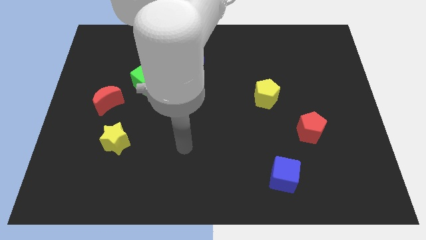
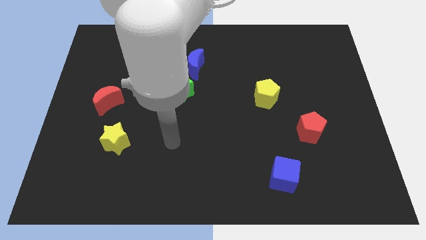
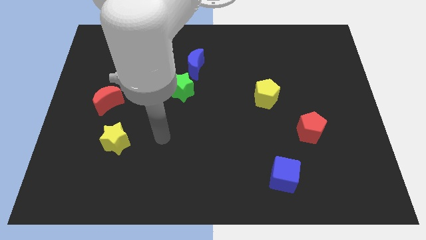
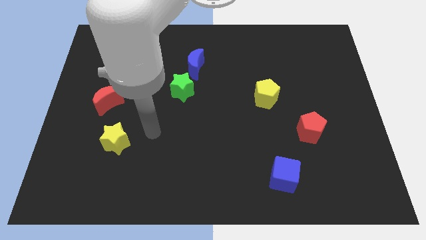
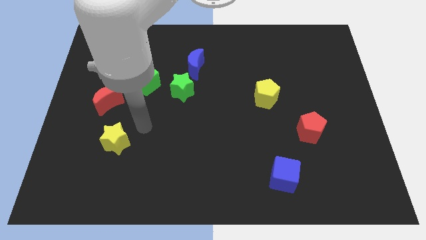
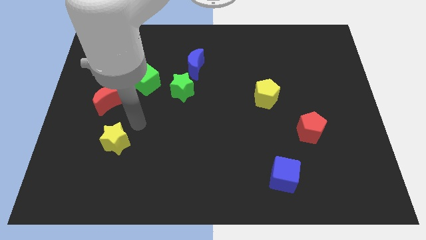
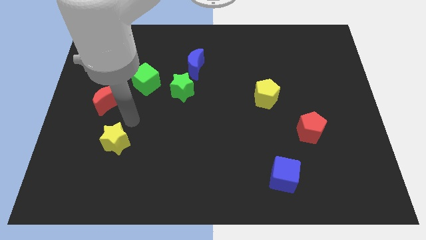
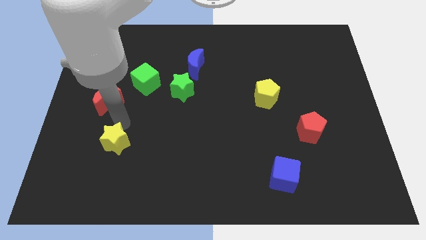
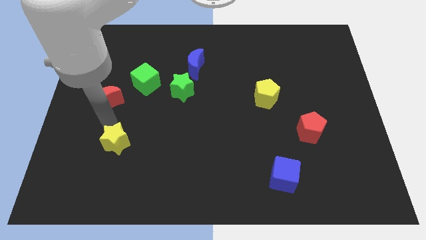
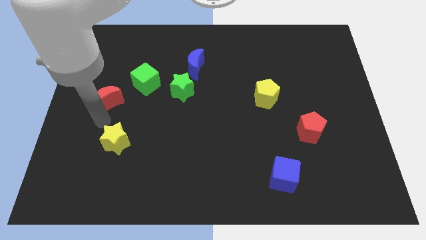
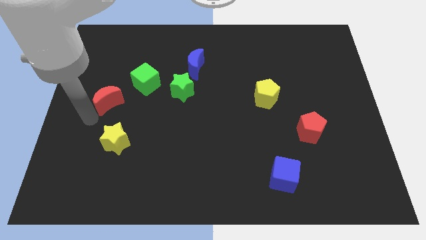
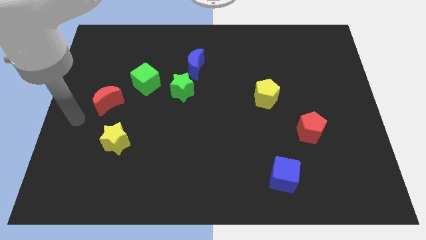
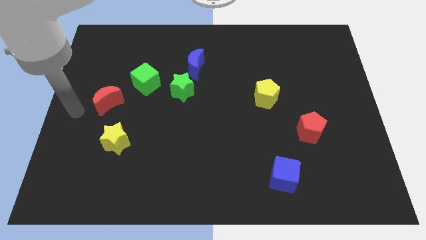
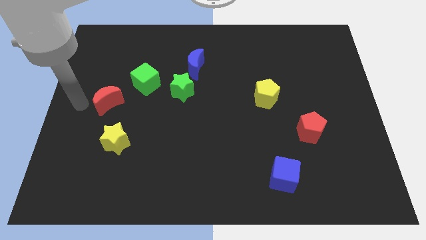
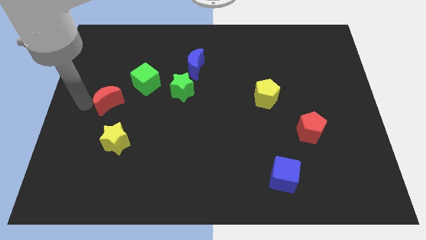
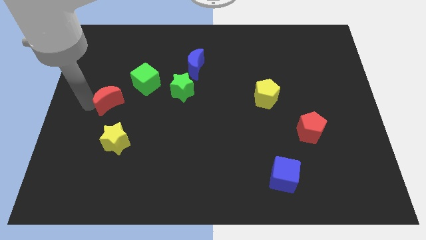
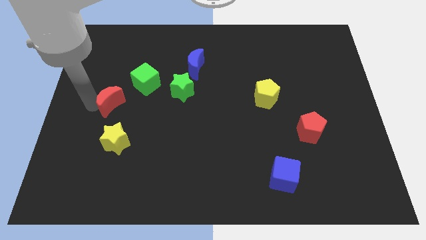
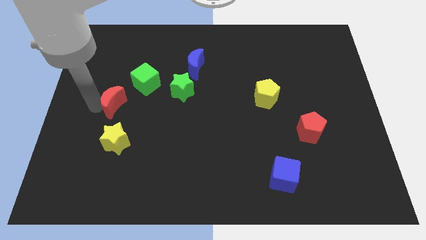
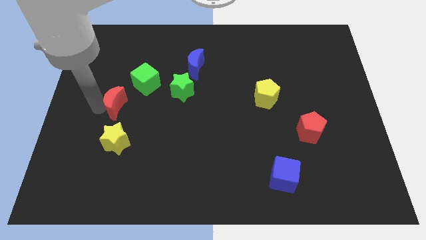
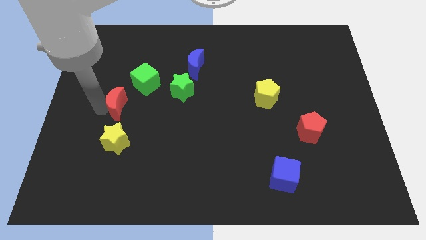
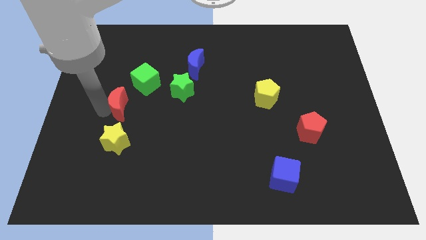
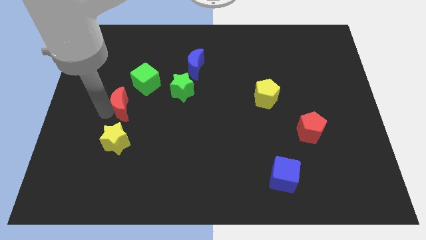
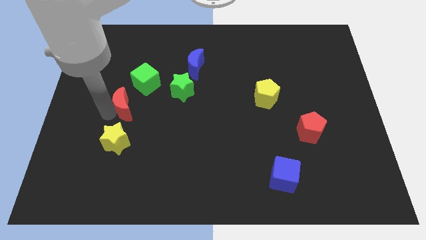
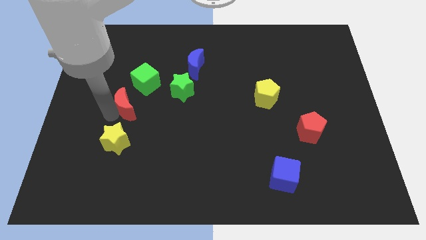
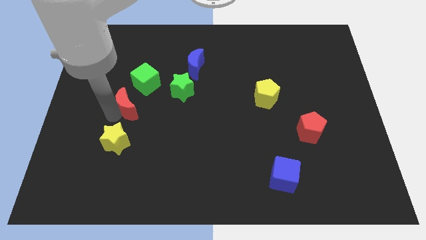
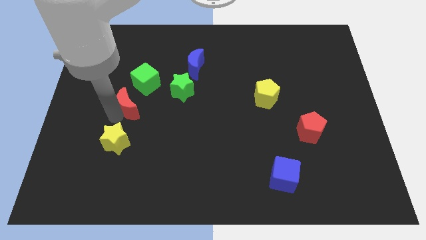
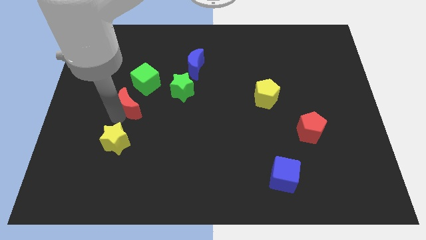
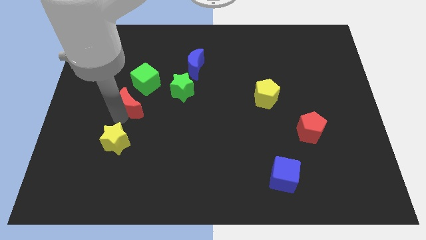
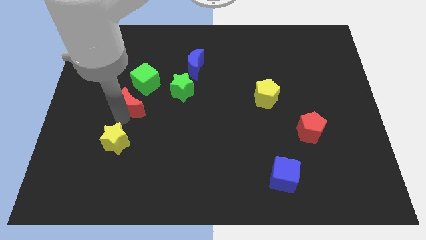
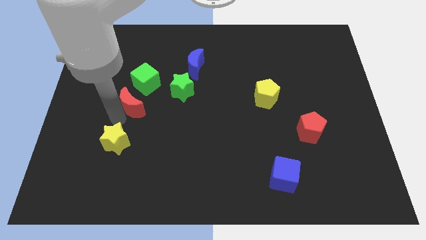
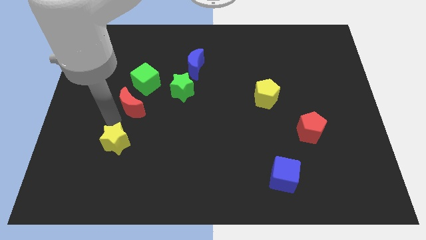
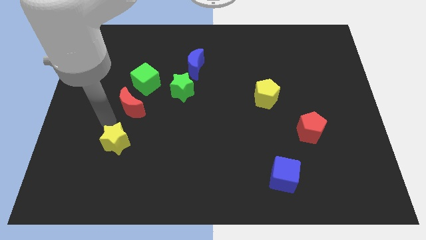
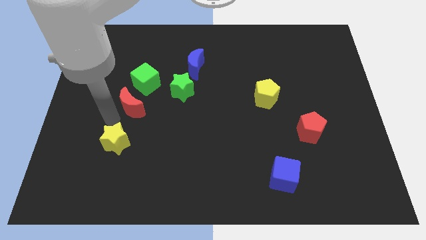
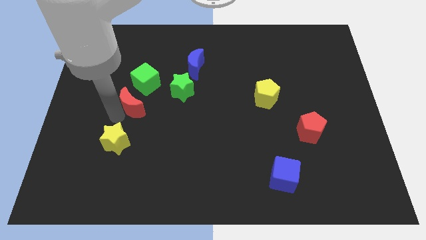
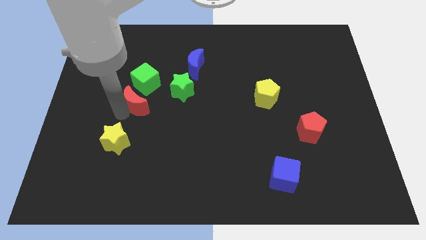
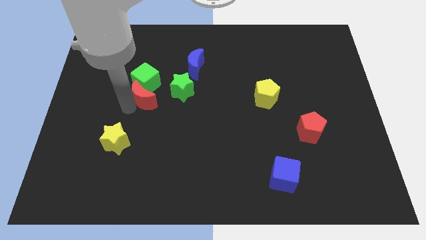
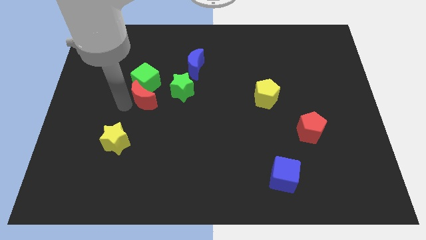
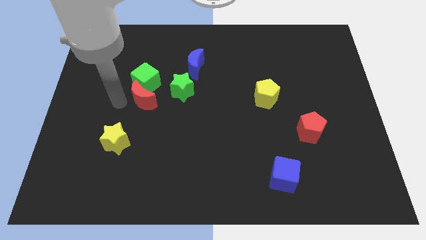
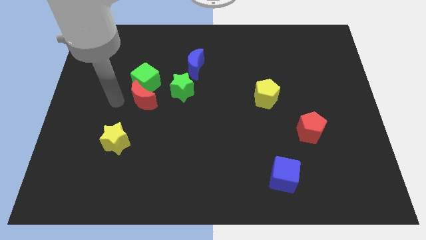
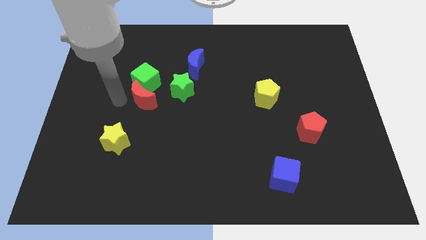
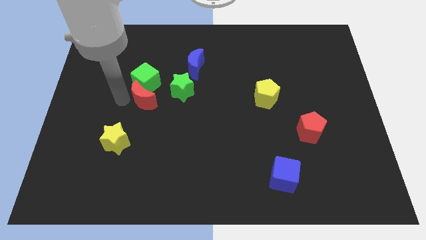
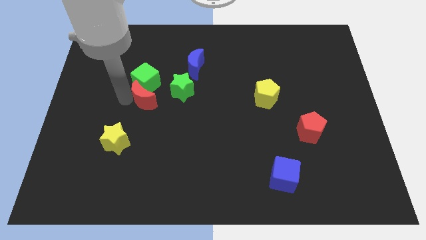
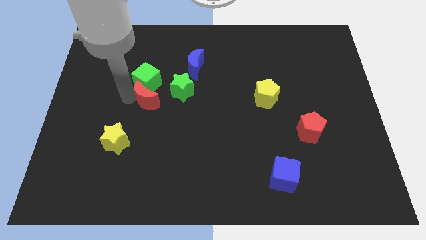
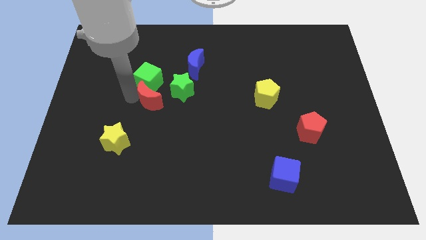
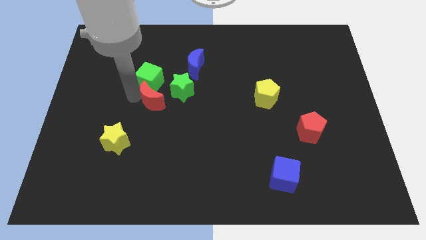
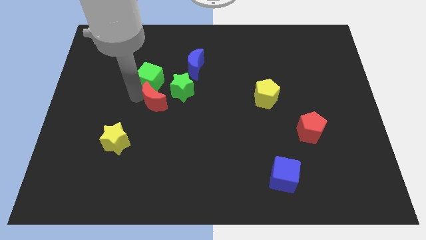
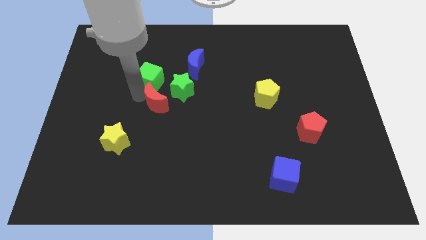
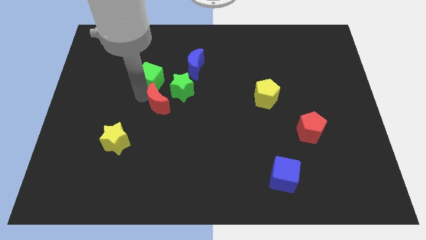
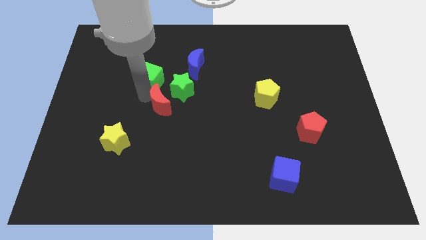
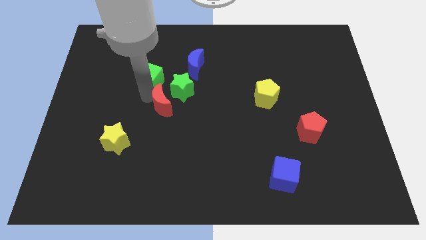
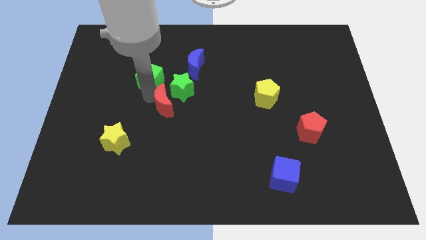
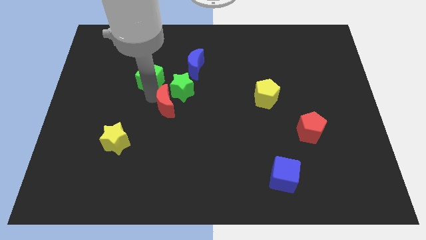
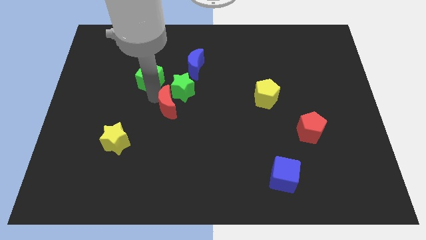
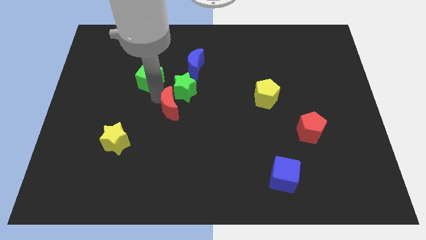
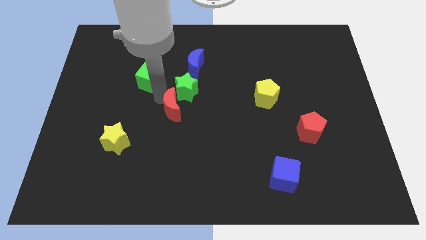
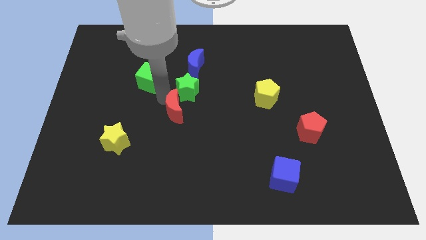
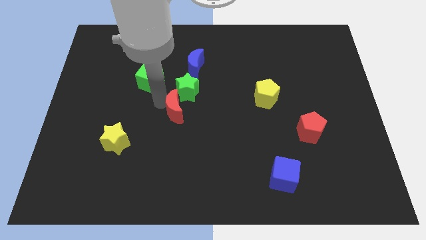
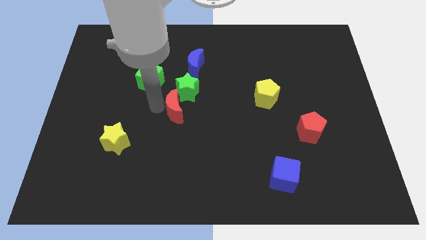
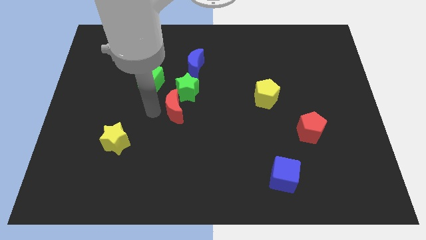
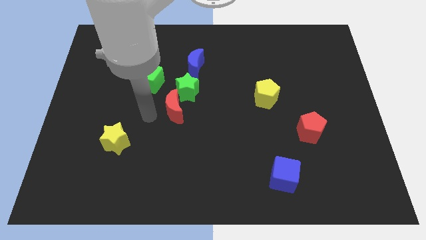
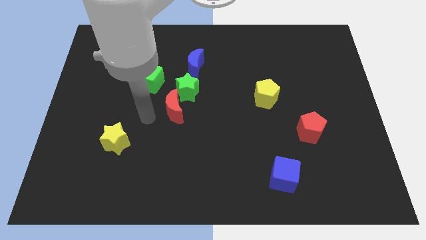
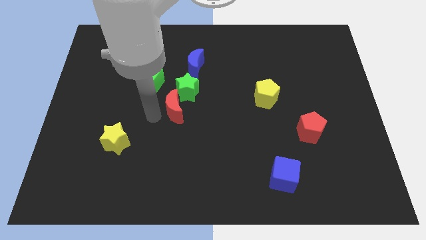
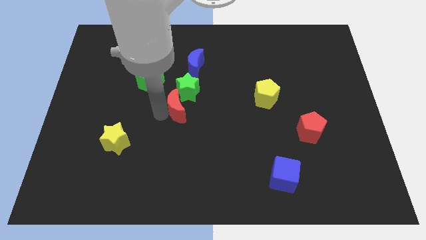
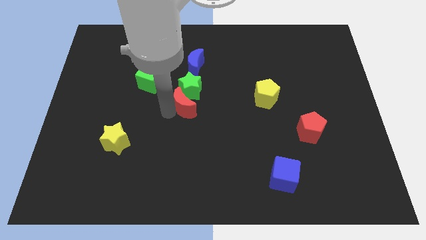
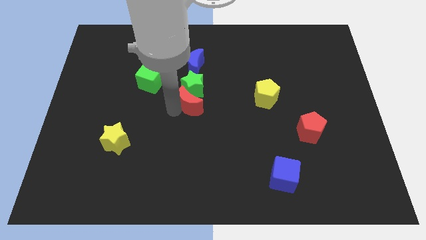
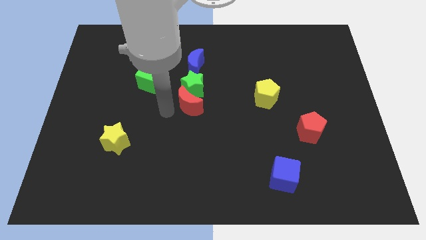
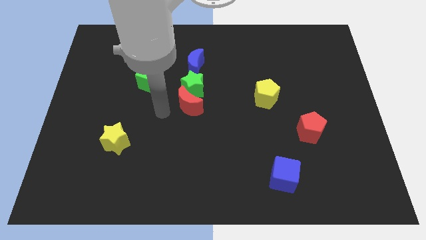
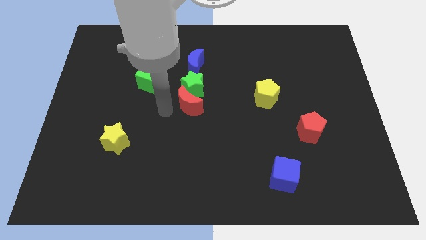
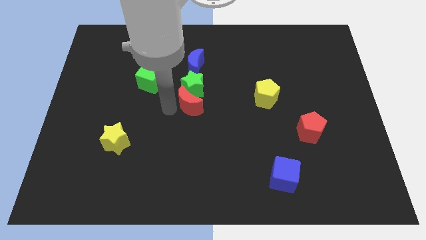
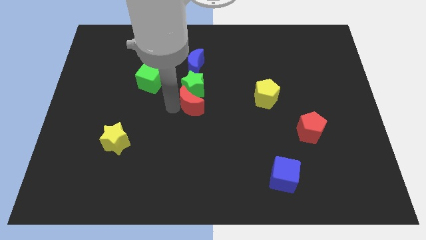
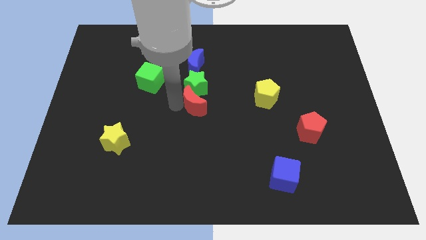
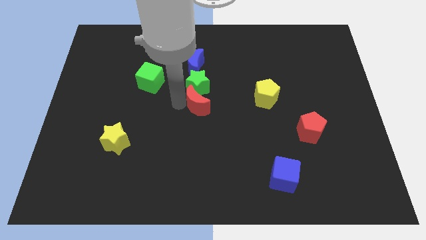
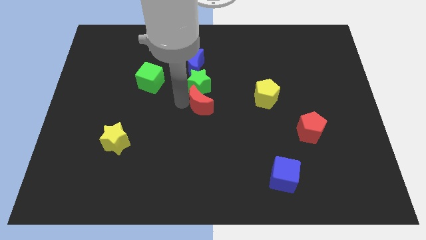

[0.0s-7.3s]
push the red moon just left of the yellow pentagon
